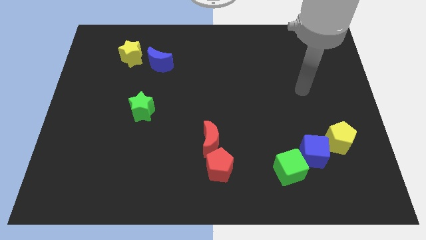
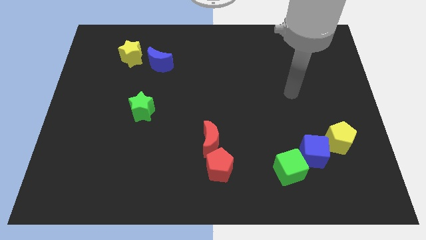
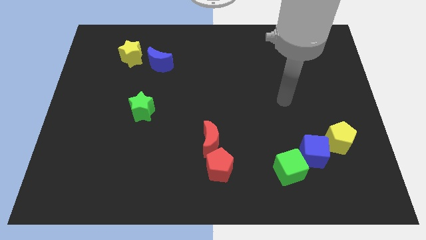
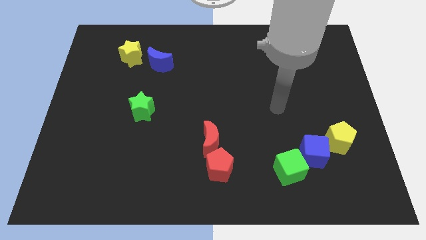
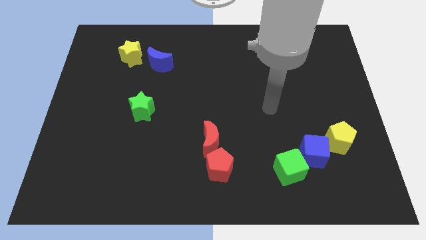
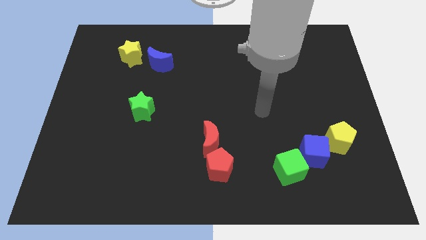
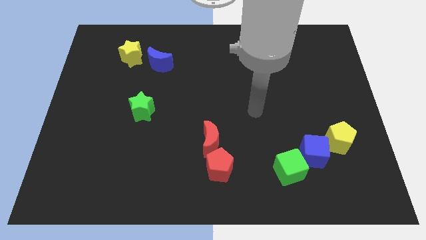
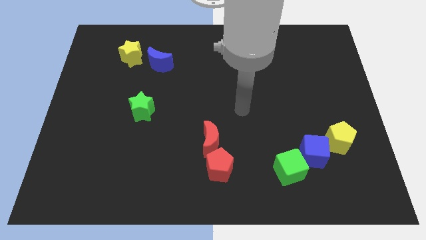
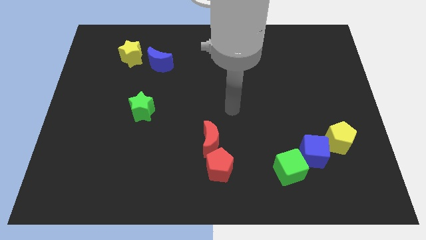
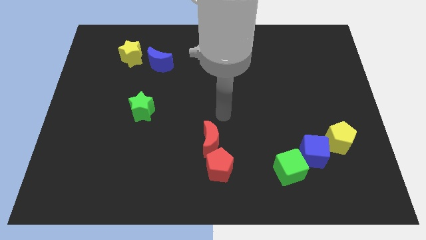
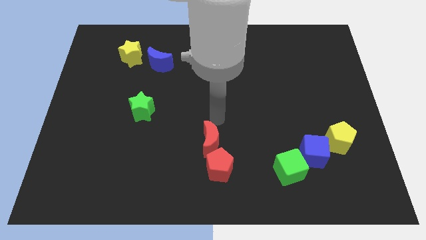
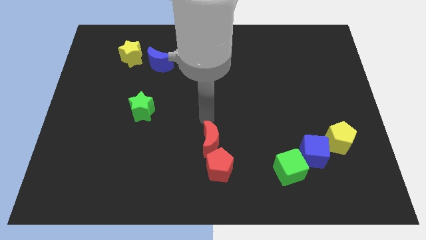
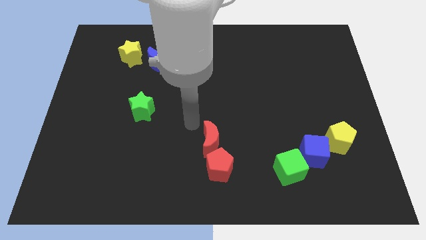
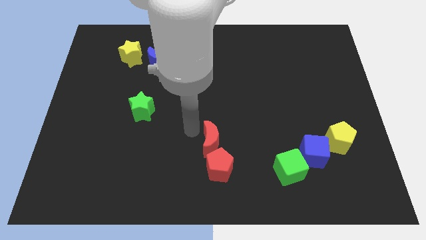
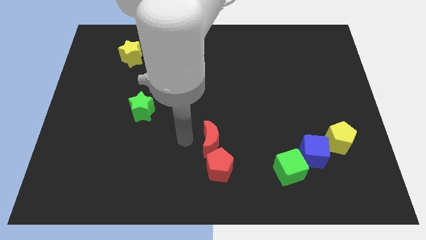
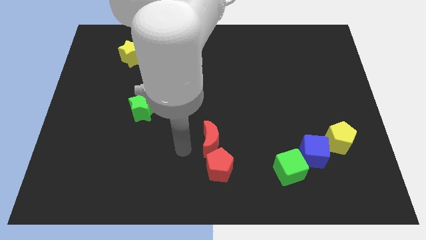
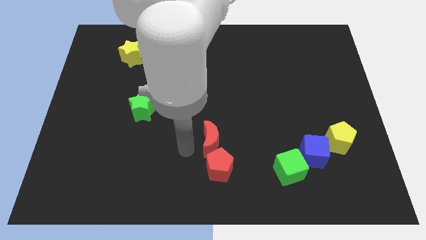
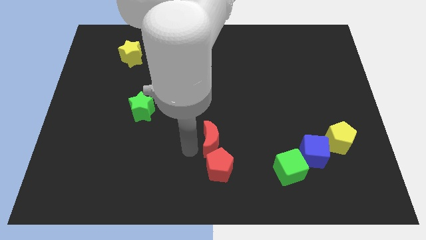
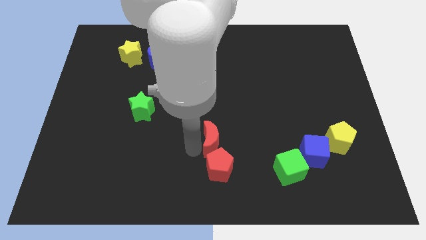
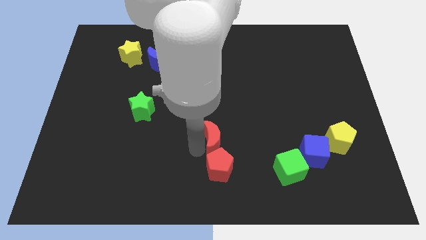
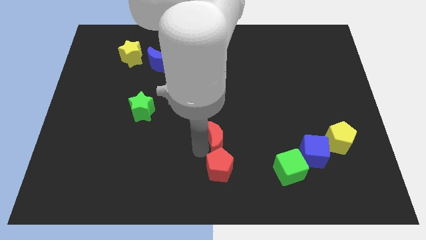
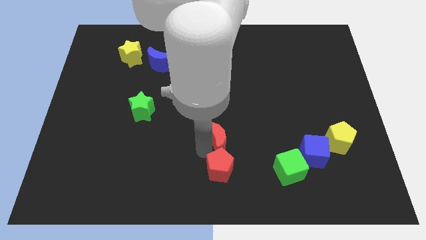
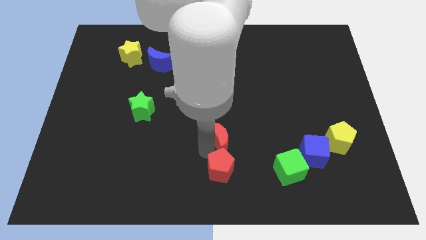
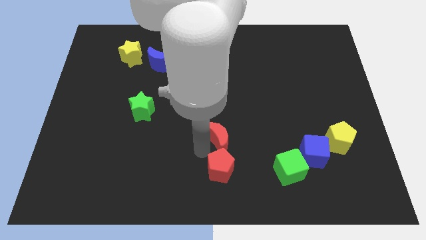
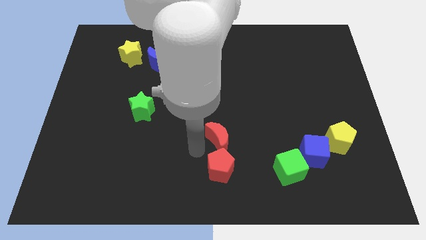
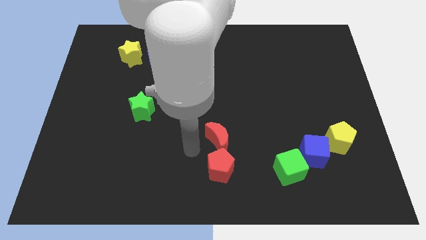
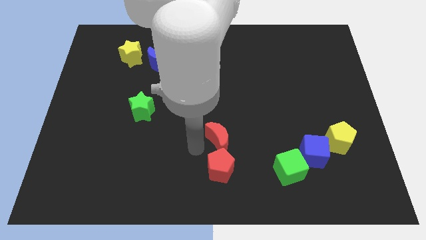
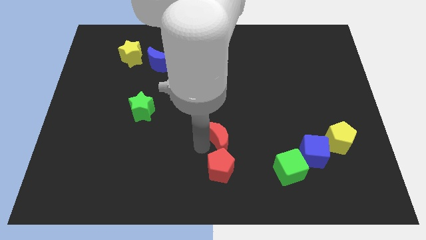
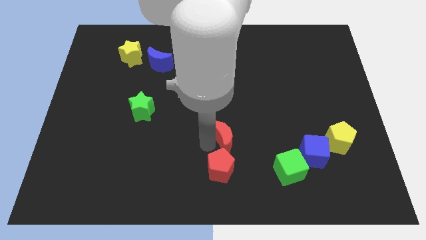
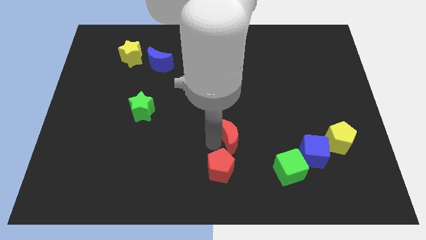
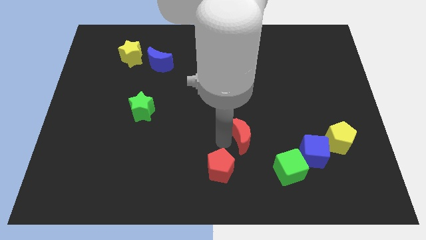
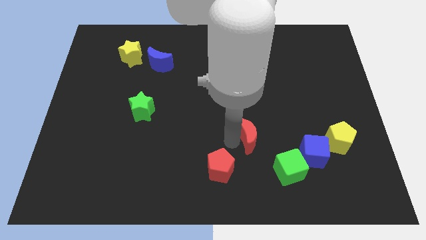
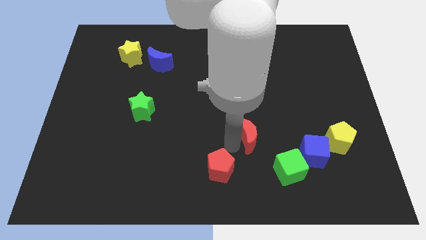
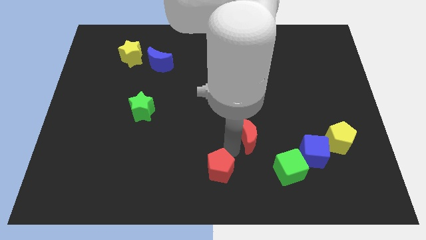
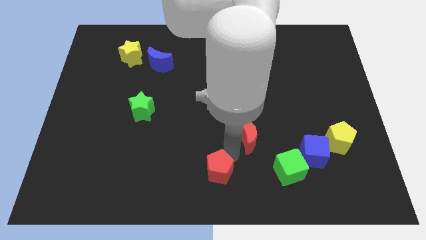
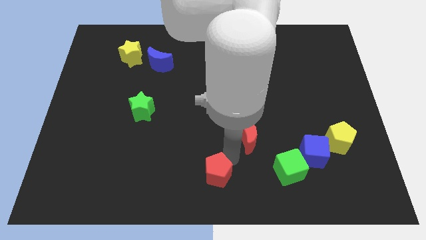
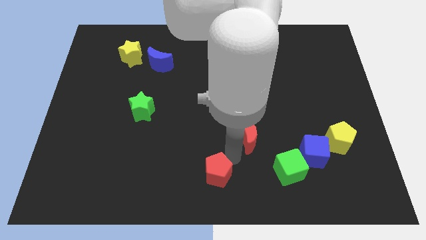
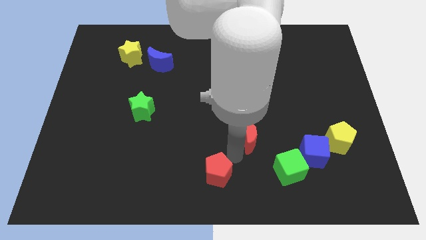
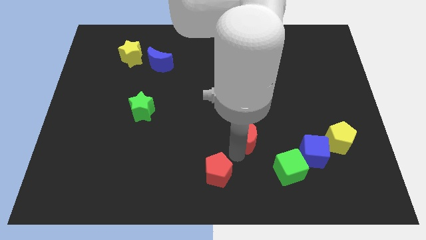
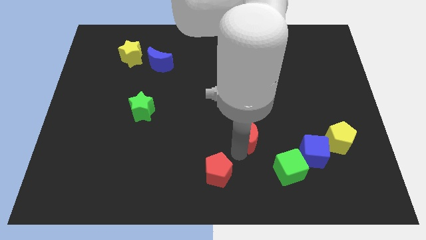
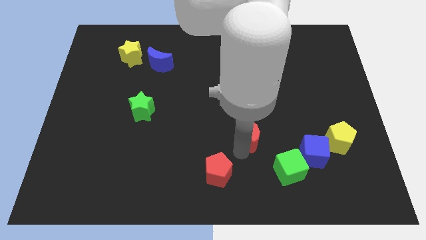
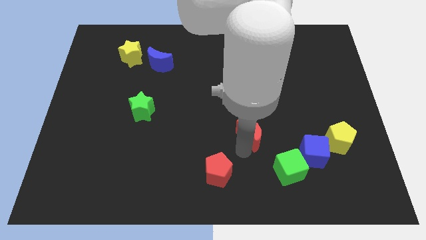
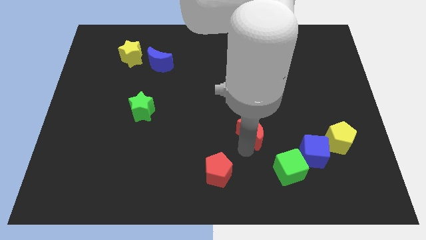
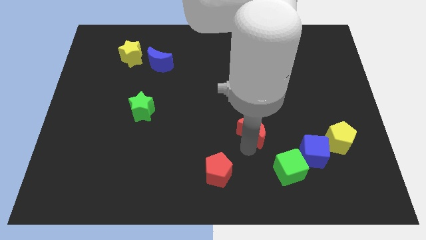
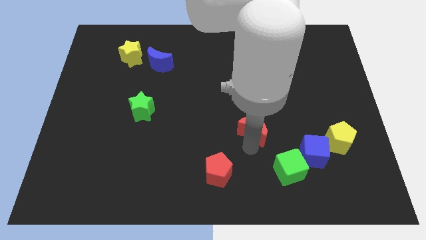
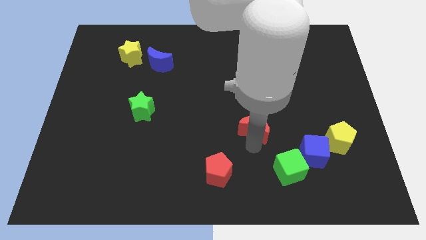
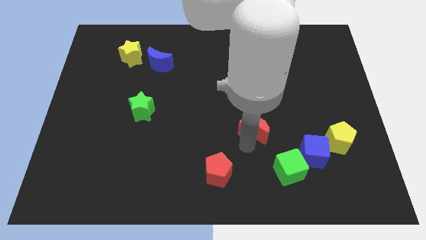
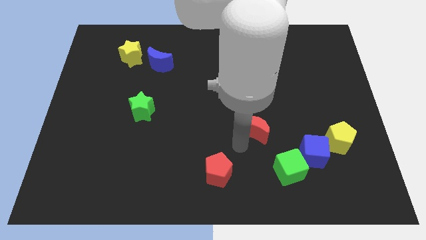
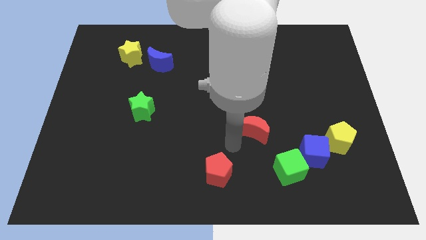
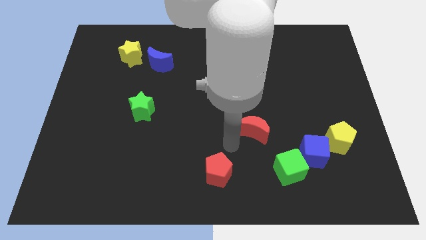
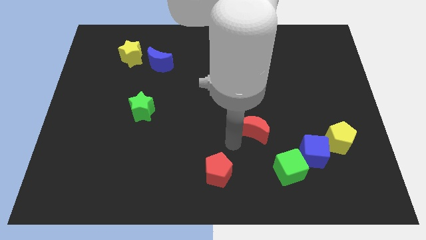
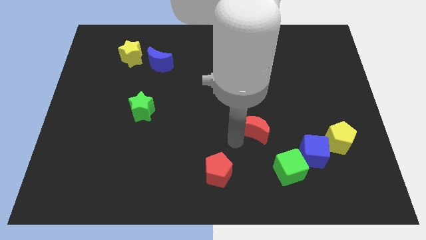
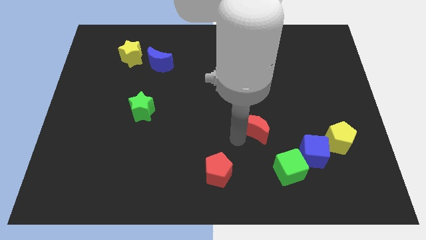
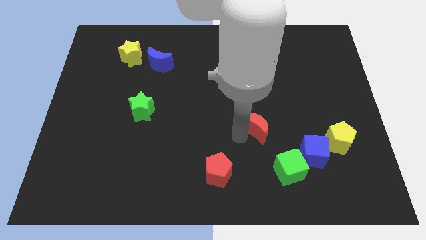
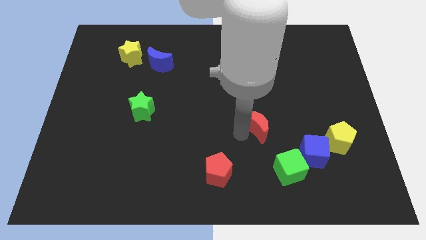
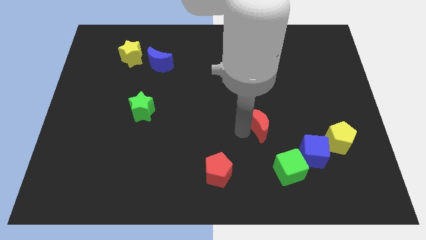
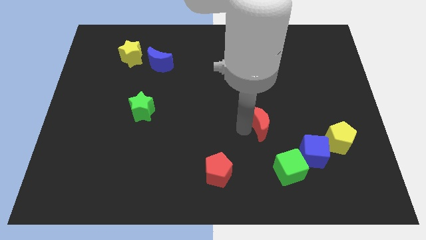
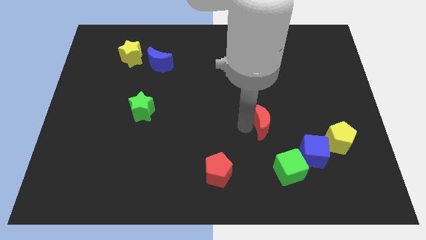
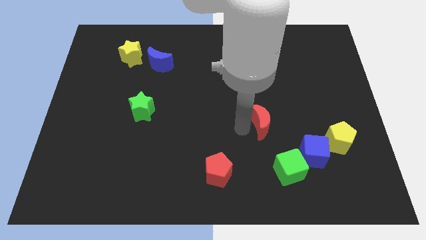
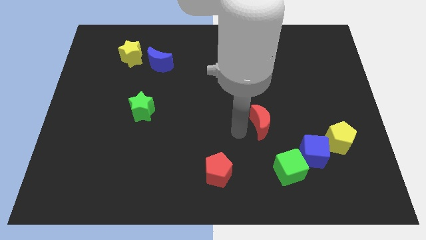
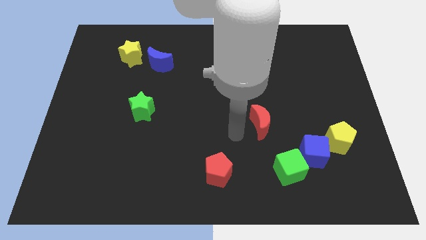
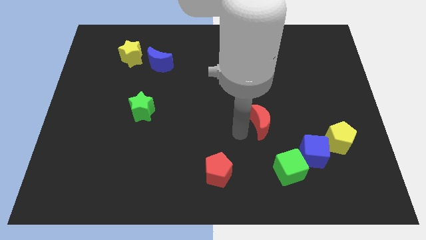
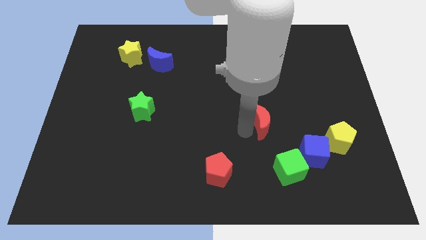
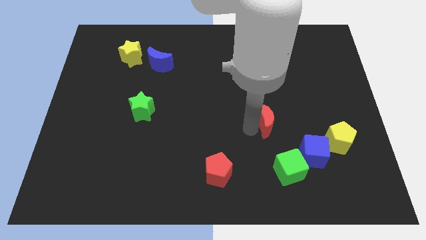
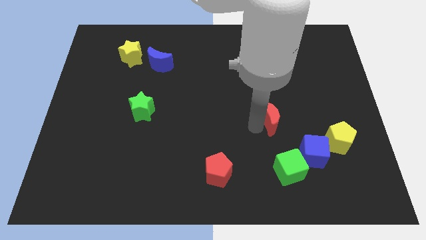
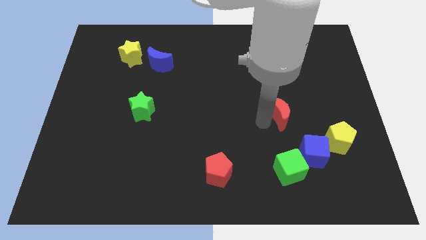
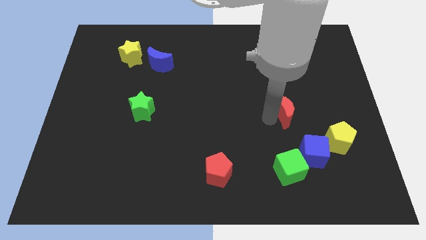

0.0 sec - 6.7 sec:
move the red moon to the top side of the blue cube

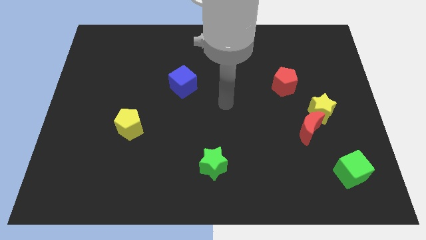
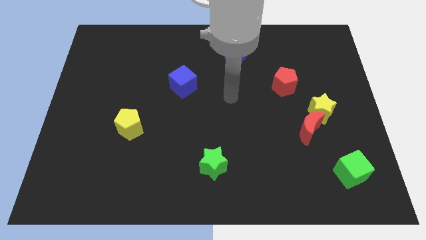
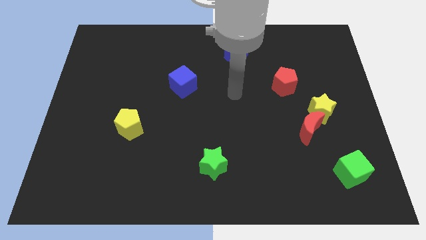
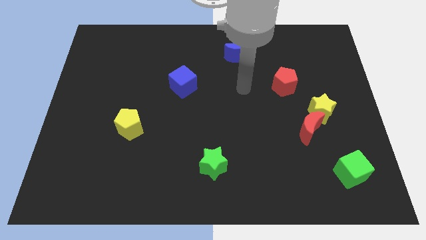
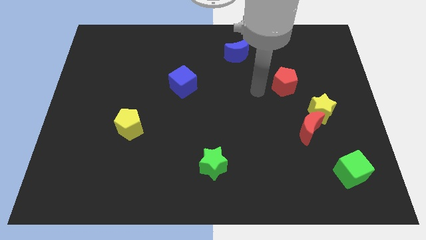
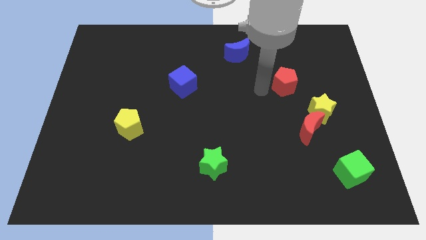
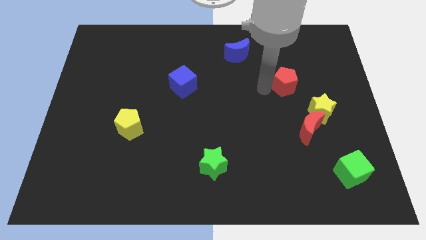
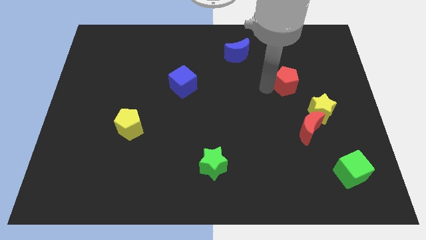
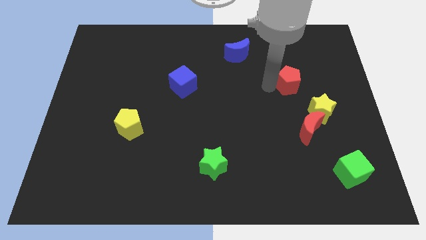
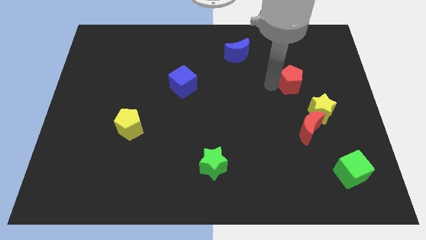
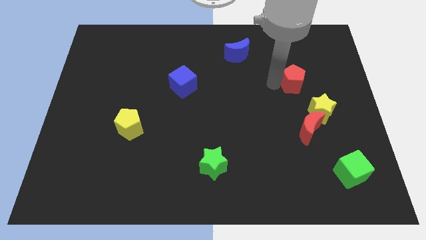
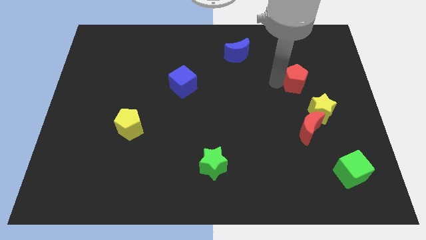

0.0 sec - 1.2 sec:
put the red pentagon to the top side of the yellow star

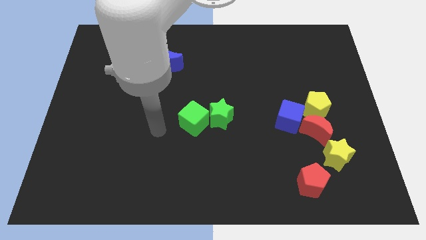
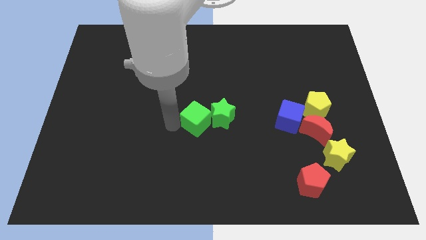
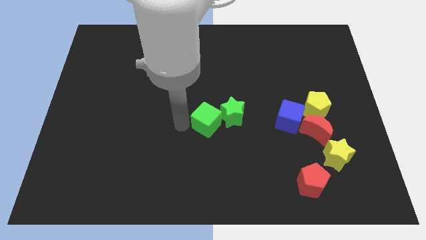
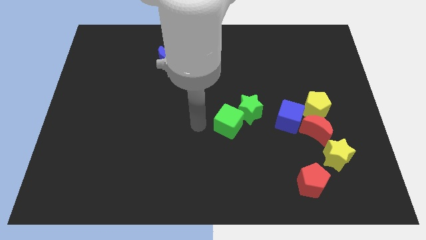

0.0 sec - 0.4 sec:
push the green star to the top left of the blue cube
